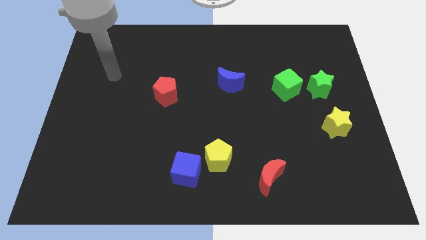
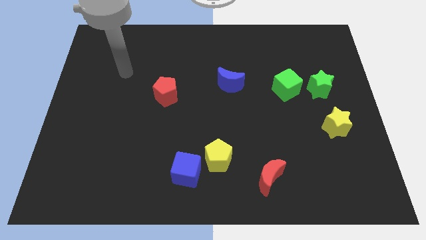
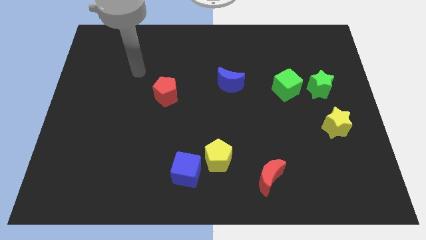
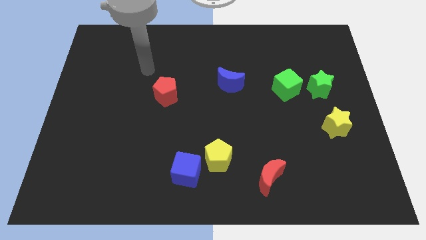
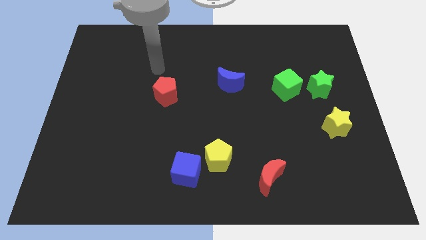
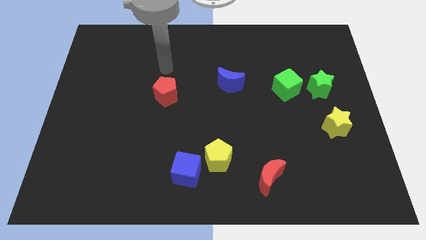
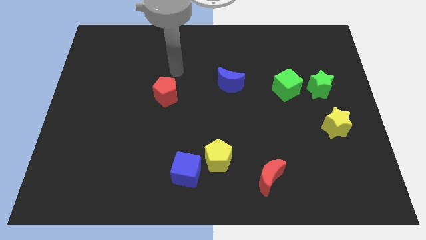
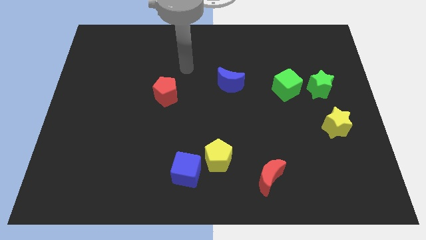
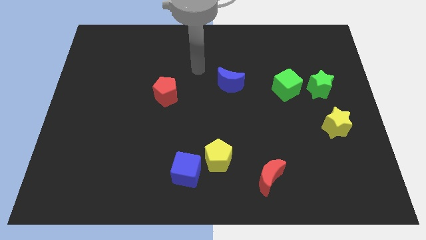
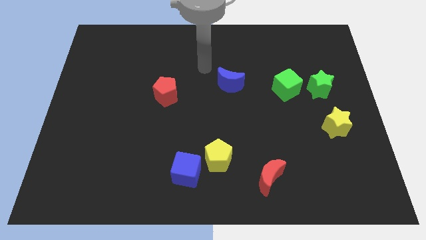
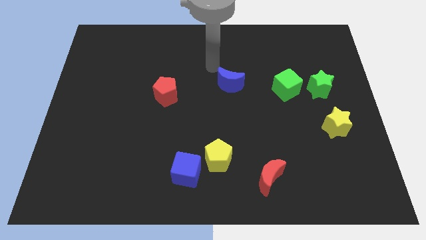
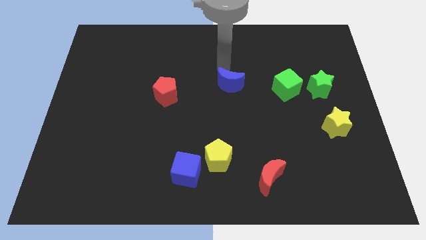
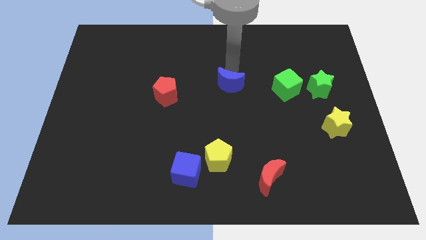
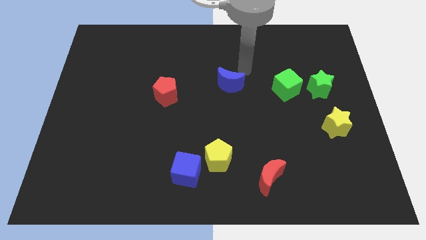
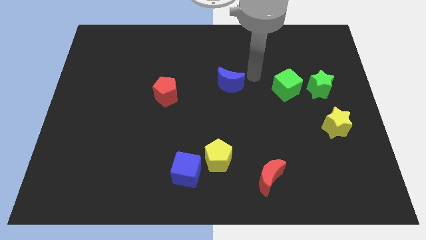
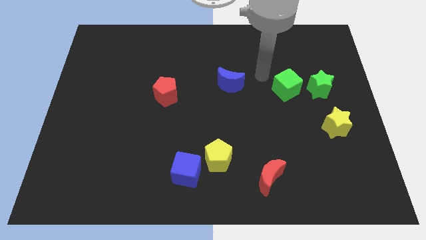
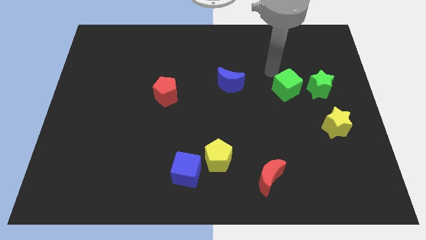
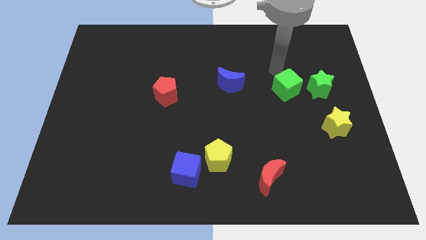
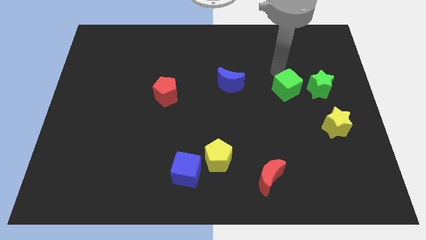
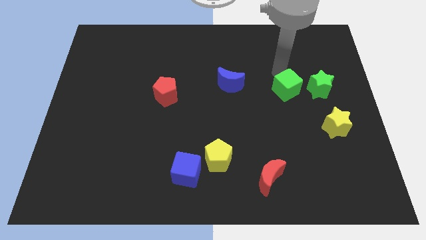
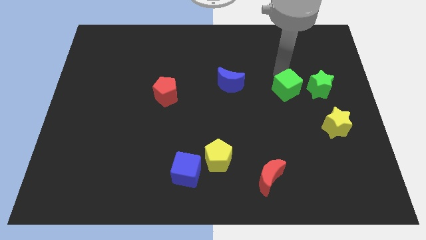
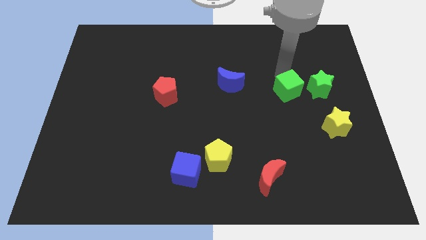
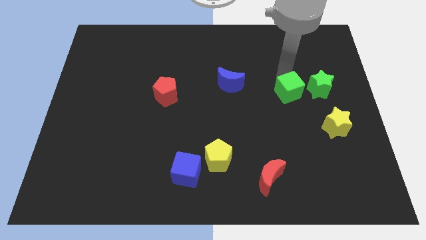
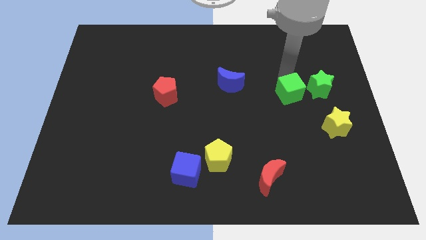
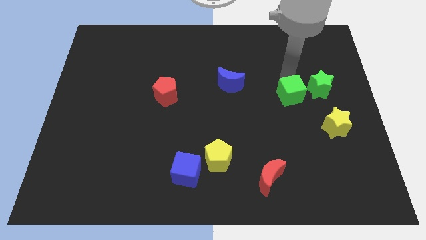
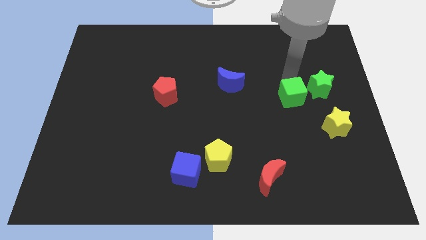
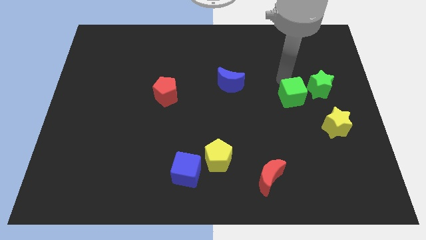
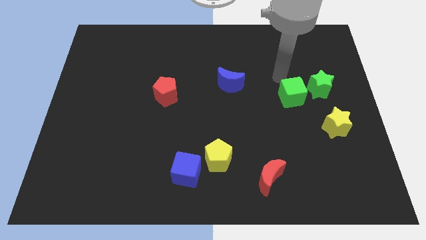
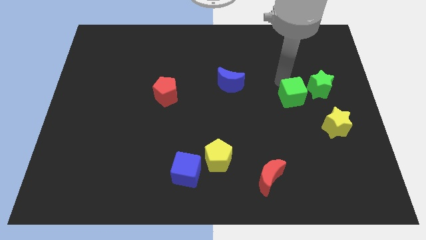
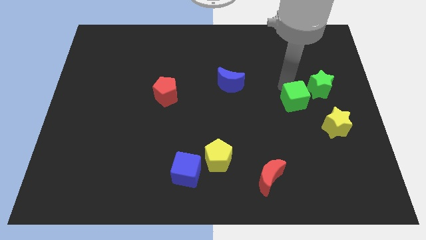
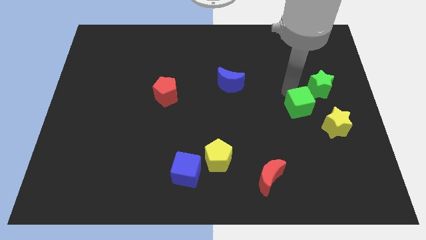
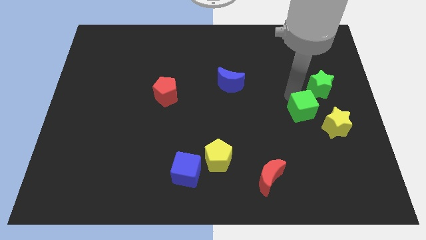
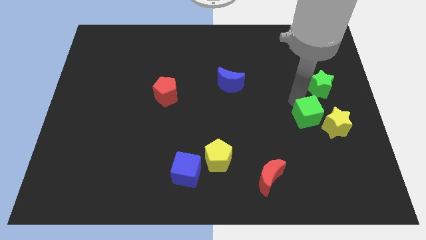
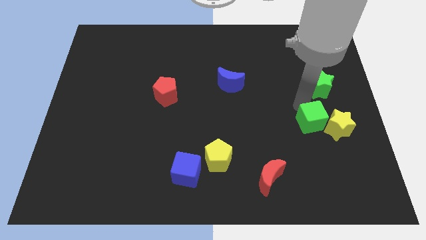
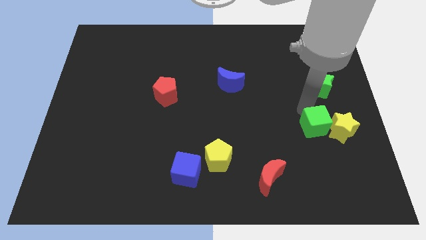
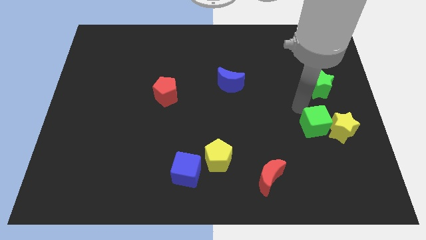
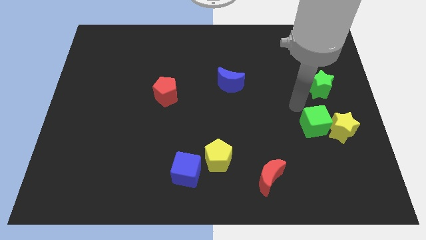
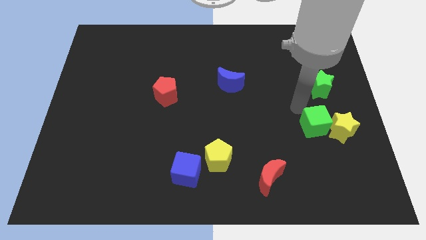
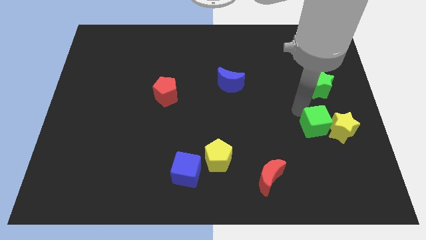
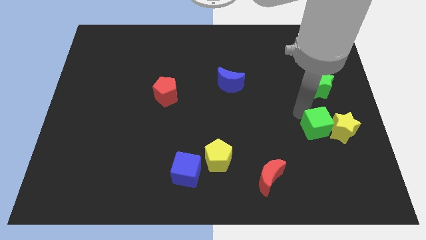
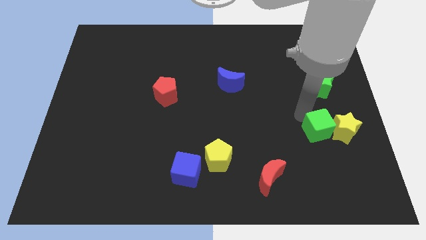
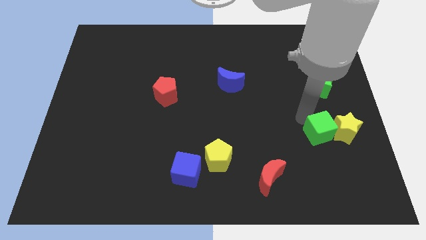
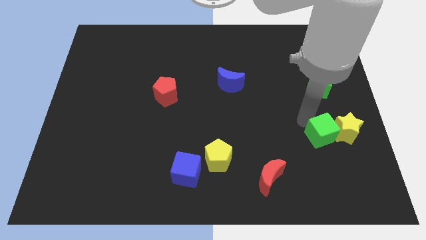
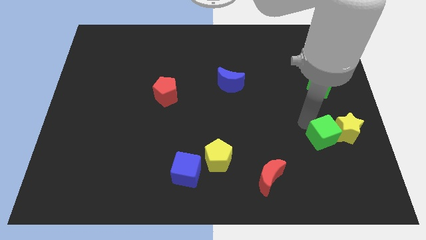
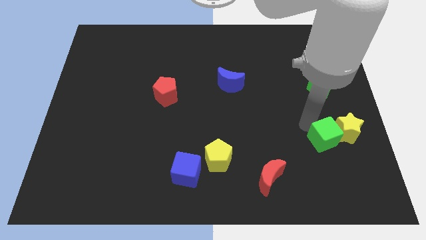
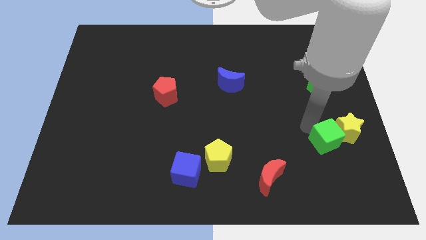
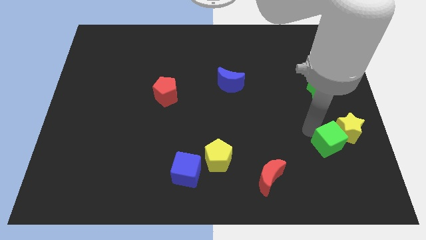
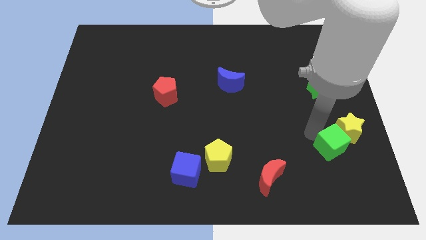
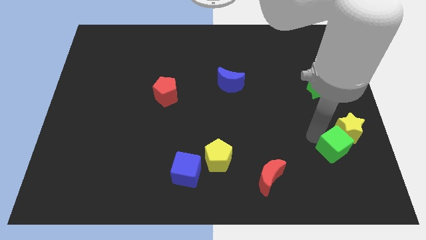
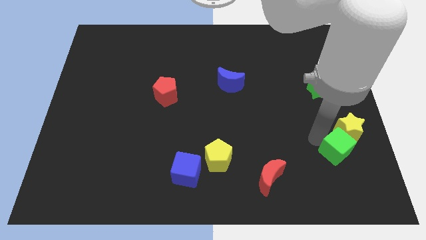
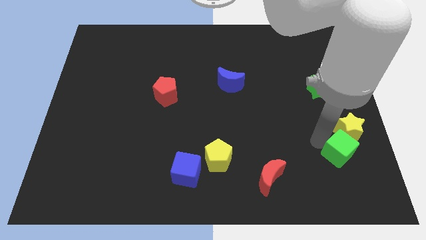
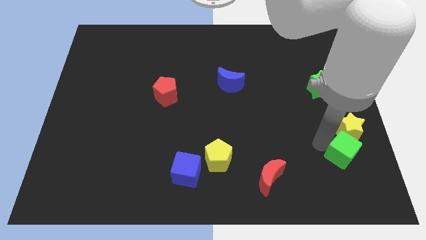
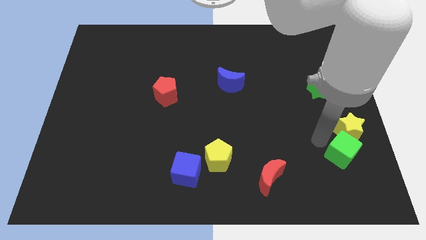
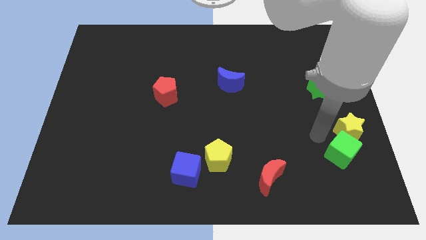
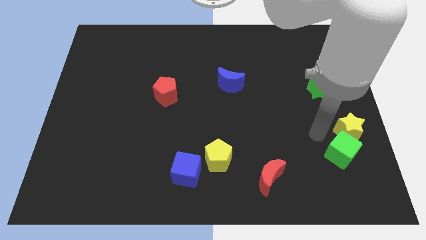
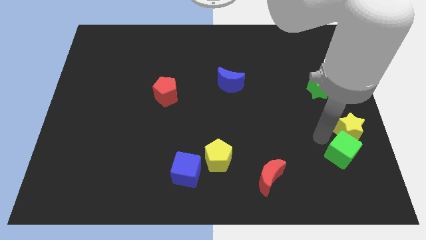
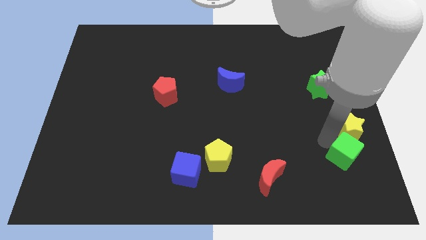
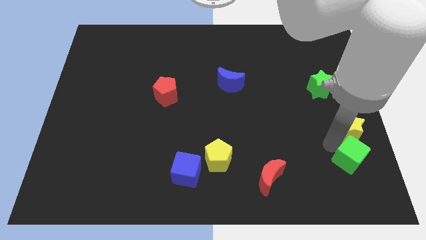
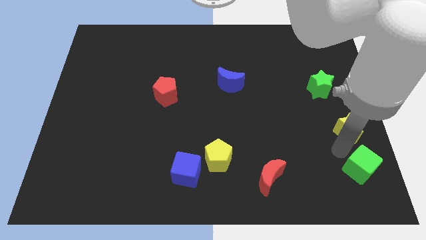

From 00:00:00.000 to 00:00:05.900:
push the green cube to the bottom right corner
